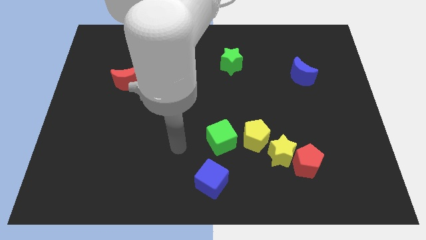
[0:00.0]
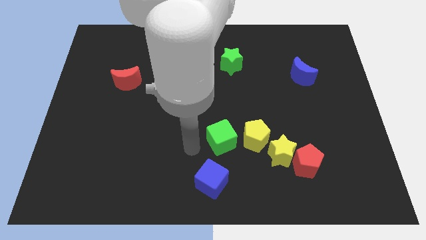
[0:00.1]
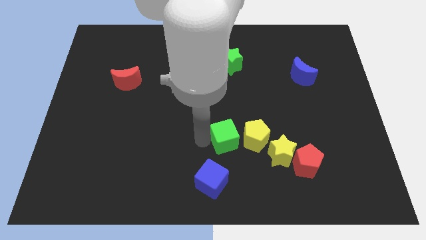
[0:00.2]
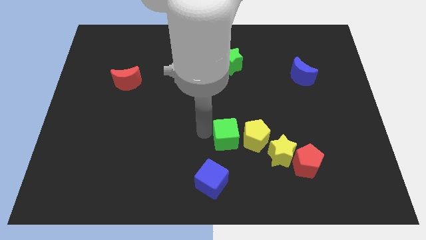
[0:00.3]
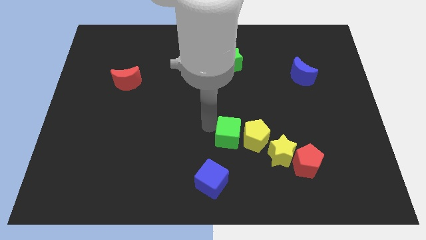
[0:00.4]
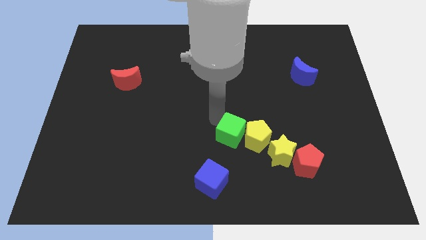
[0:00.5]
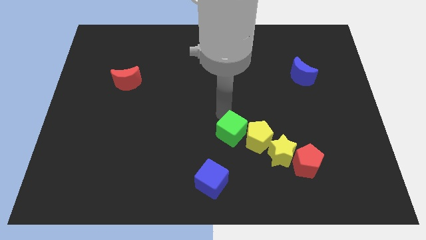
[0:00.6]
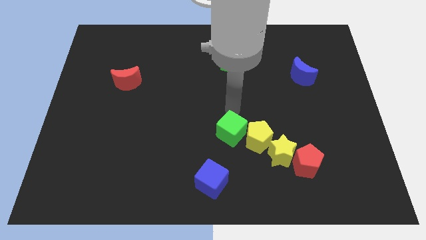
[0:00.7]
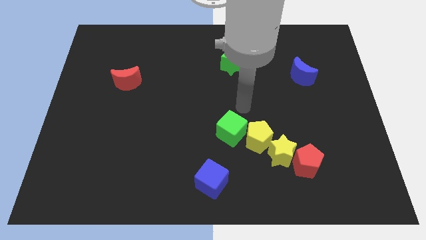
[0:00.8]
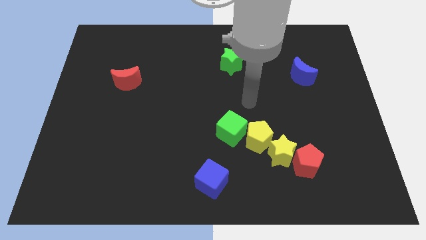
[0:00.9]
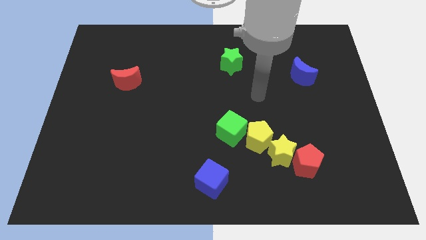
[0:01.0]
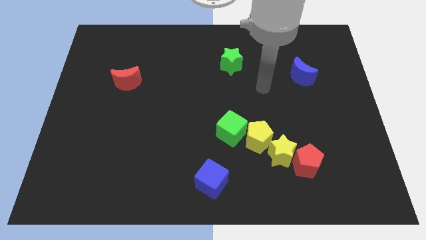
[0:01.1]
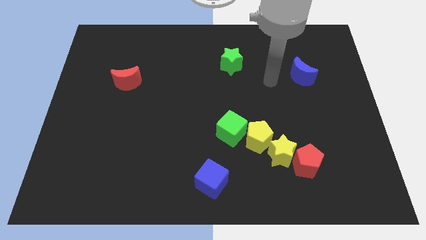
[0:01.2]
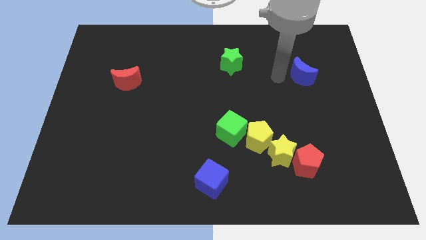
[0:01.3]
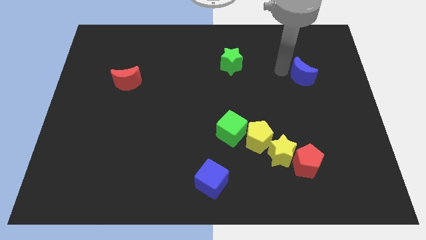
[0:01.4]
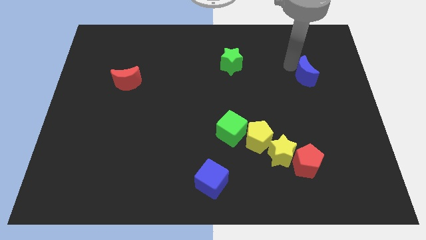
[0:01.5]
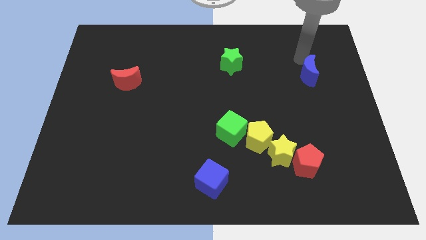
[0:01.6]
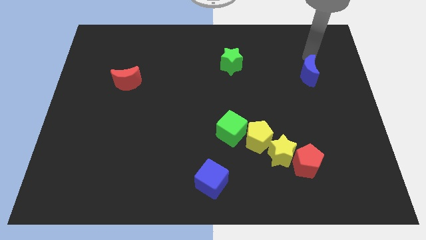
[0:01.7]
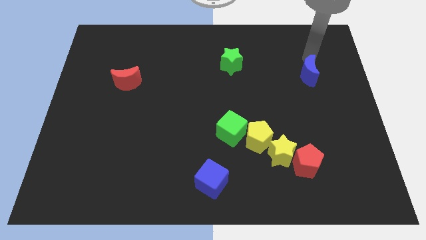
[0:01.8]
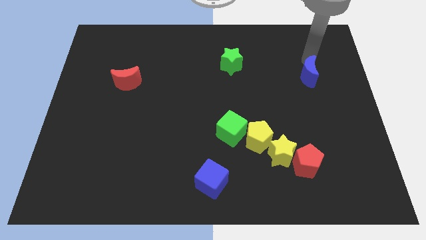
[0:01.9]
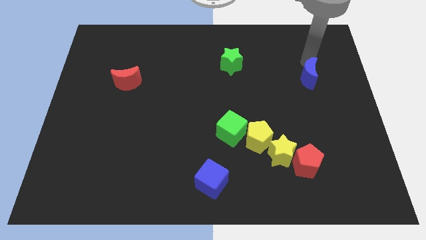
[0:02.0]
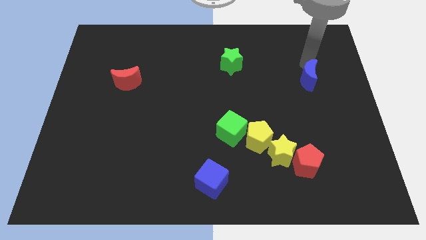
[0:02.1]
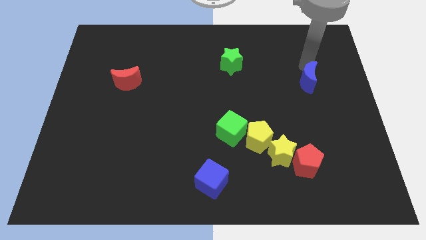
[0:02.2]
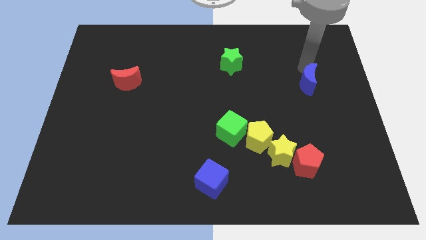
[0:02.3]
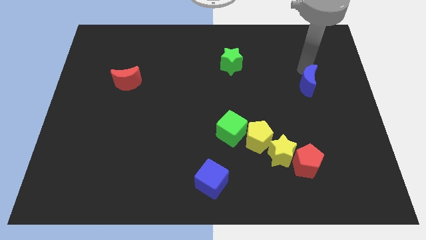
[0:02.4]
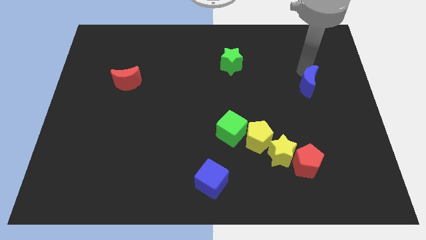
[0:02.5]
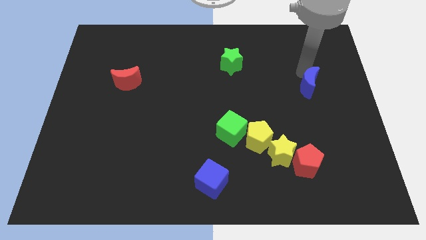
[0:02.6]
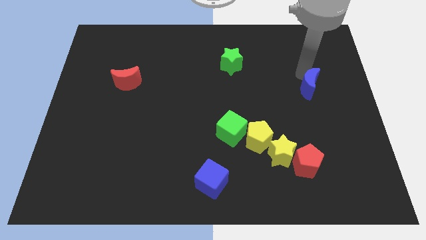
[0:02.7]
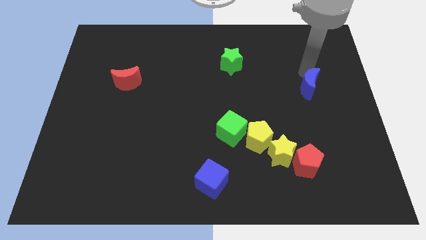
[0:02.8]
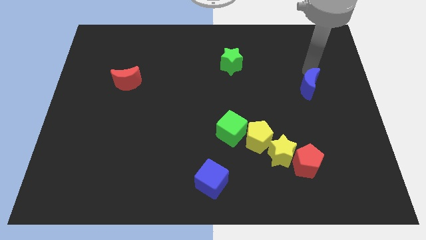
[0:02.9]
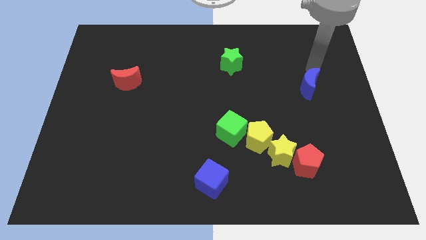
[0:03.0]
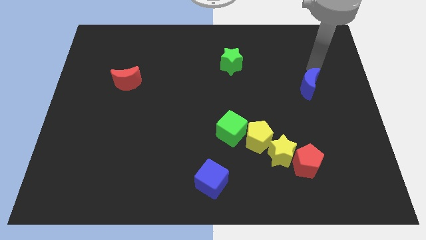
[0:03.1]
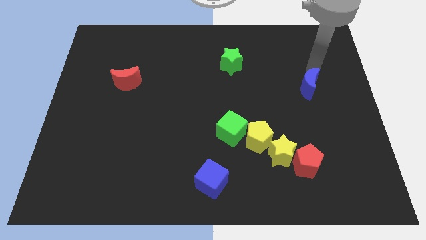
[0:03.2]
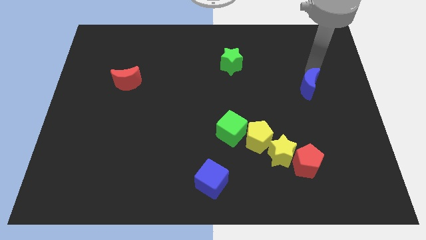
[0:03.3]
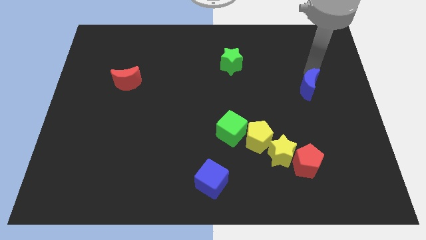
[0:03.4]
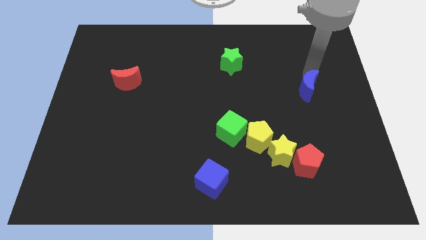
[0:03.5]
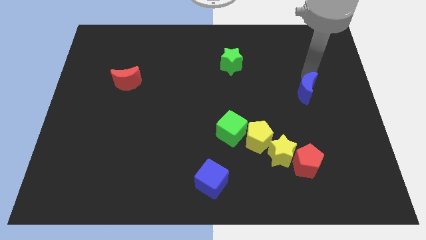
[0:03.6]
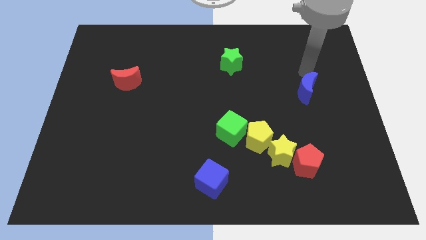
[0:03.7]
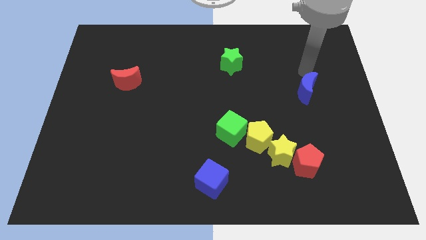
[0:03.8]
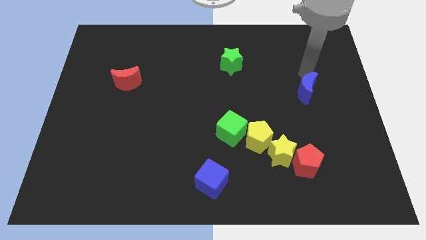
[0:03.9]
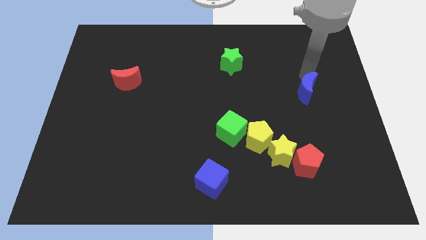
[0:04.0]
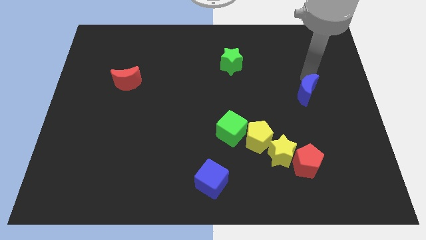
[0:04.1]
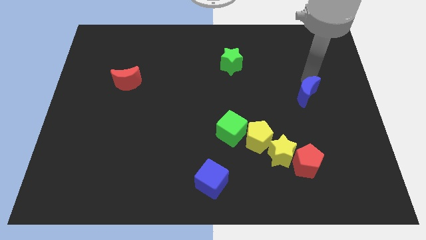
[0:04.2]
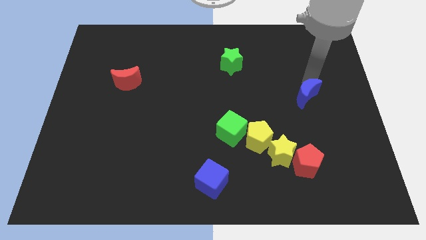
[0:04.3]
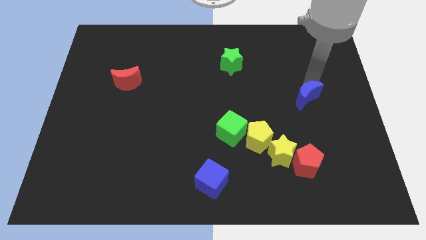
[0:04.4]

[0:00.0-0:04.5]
slightly move the blue moon down

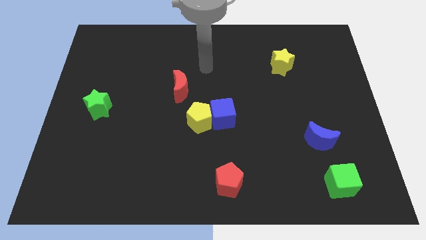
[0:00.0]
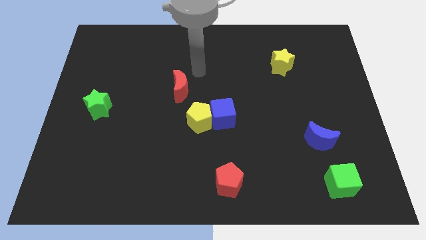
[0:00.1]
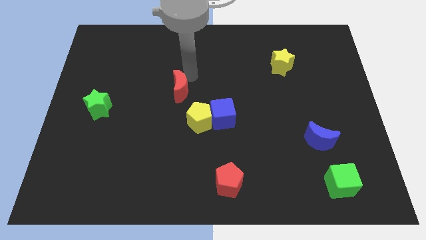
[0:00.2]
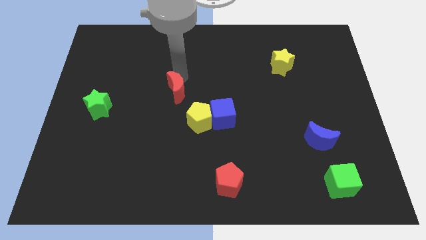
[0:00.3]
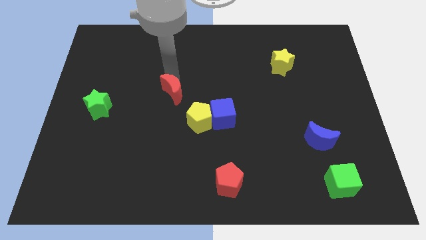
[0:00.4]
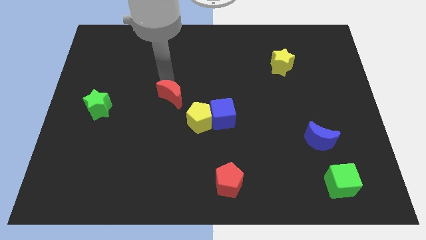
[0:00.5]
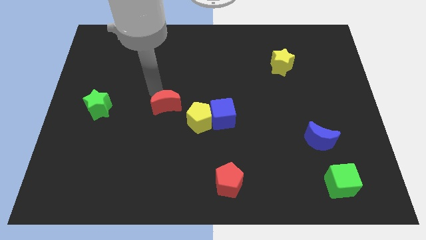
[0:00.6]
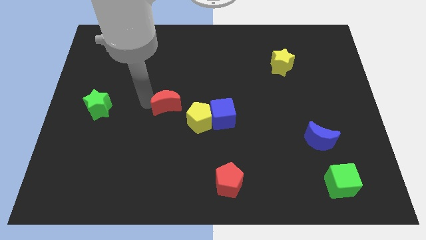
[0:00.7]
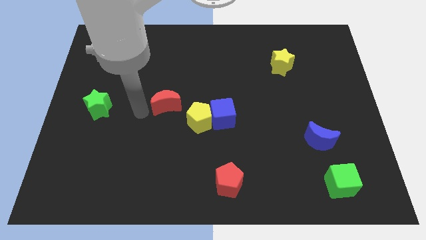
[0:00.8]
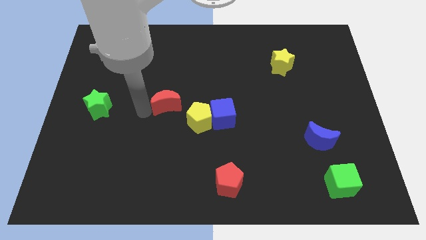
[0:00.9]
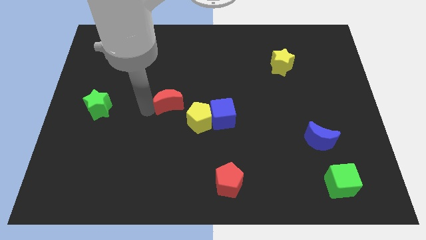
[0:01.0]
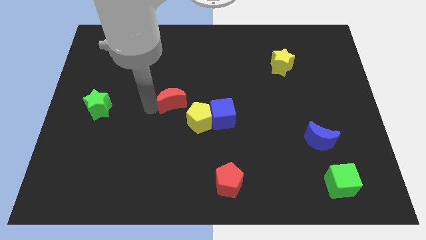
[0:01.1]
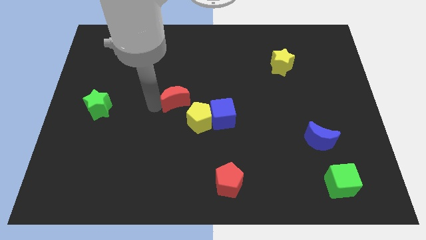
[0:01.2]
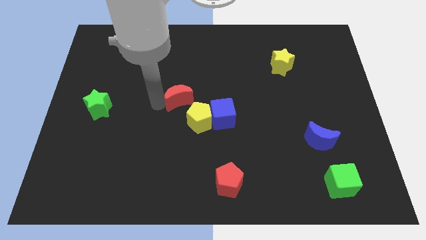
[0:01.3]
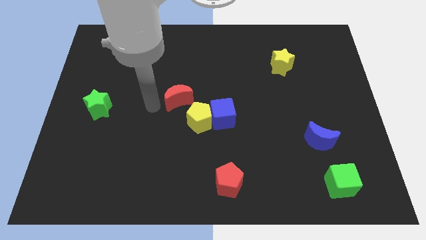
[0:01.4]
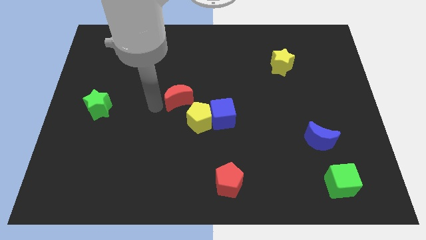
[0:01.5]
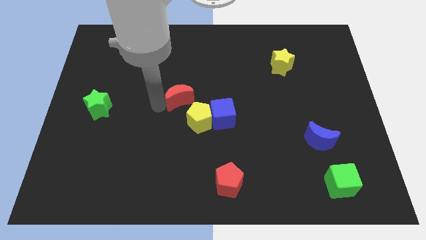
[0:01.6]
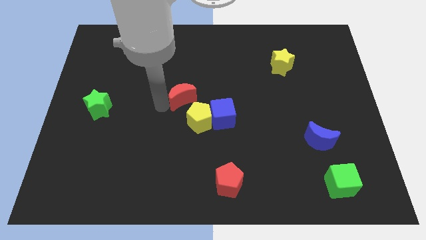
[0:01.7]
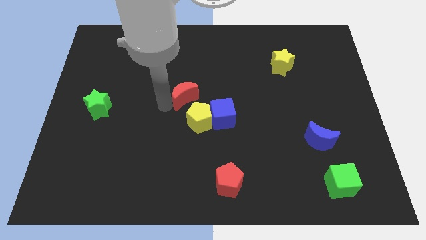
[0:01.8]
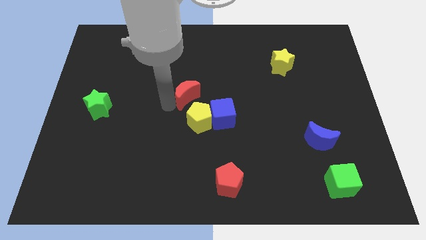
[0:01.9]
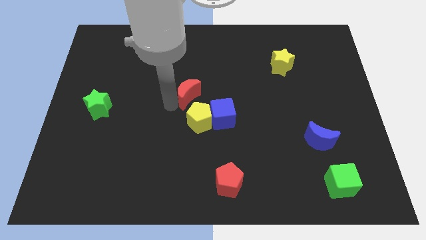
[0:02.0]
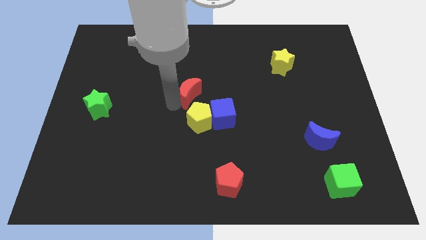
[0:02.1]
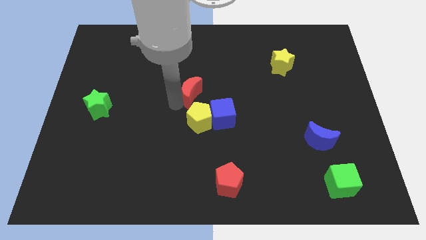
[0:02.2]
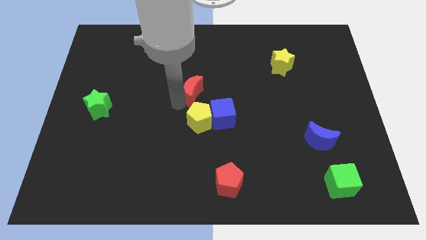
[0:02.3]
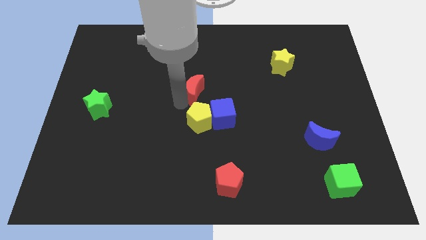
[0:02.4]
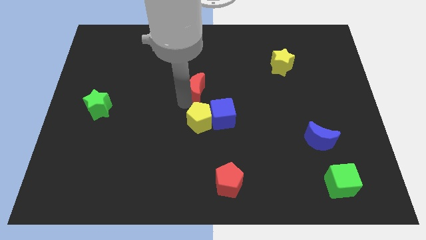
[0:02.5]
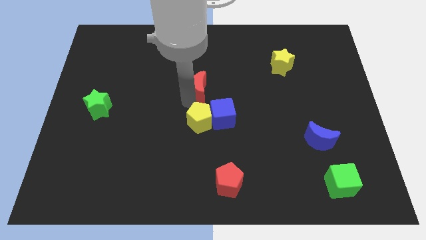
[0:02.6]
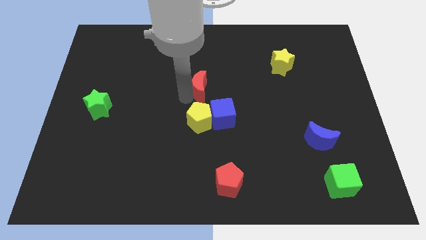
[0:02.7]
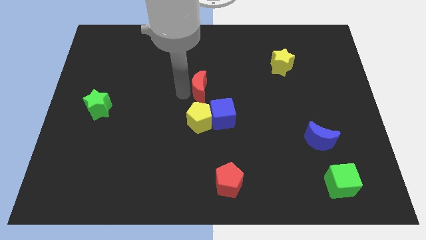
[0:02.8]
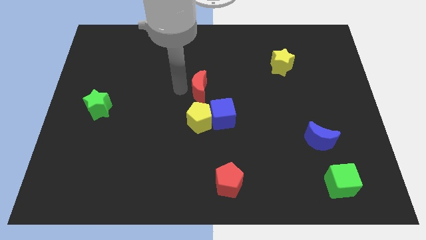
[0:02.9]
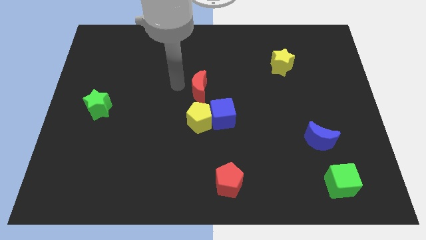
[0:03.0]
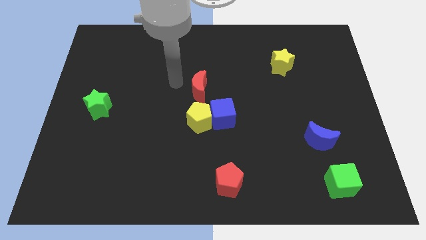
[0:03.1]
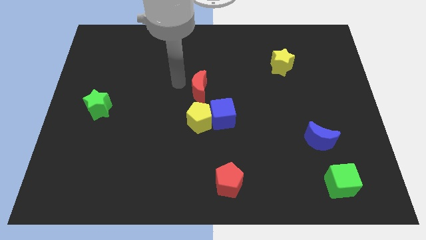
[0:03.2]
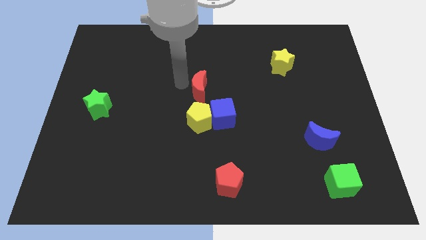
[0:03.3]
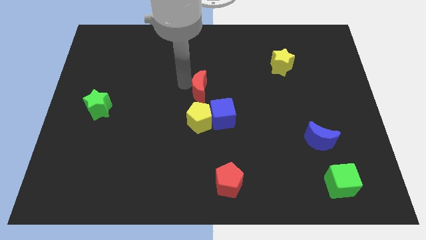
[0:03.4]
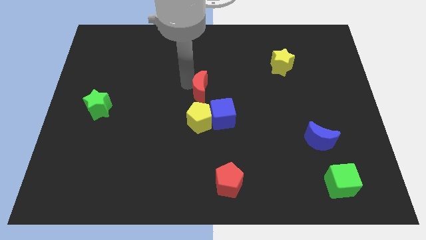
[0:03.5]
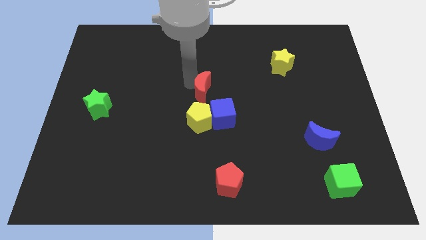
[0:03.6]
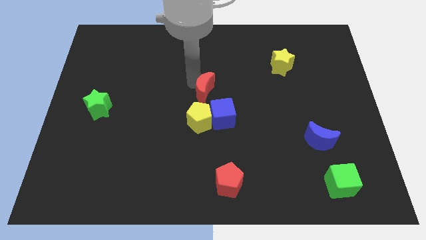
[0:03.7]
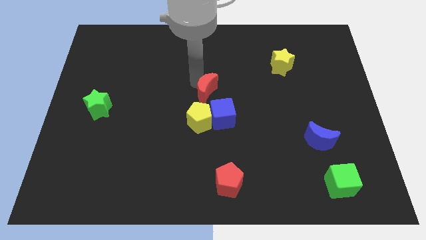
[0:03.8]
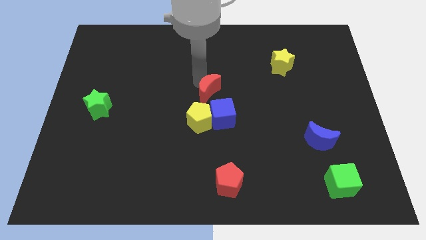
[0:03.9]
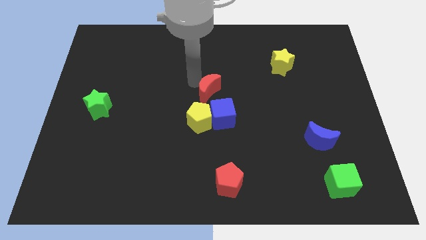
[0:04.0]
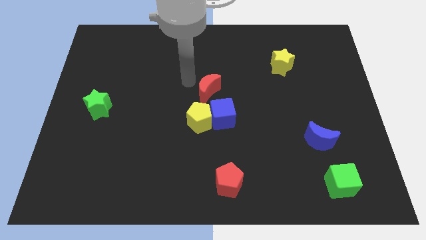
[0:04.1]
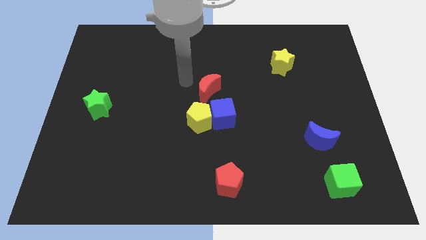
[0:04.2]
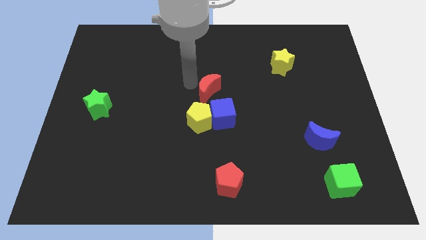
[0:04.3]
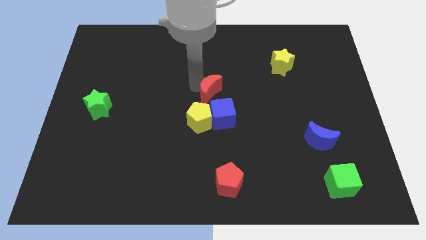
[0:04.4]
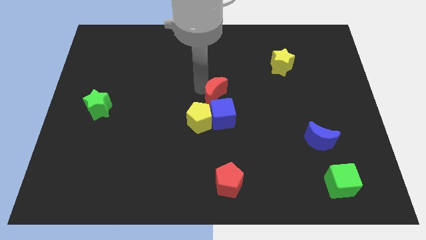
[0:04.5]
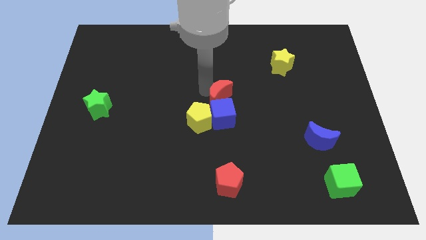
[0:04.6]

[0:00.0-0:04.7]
move the red moon a little bit downwards and then to the right
